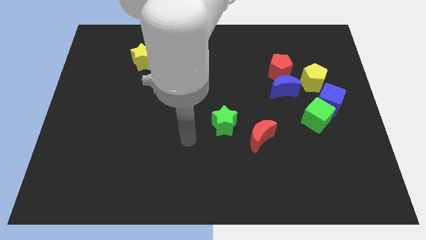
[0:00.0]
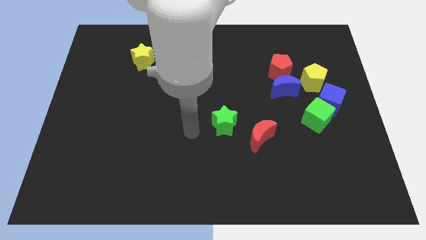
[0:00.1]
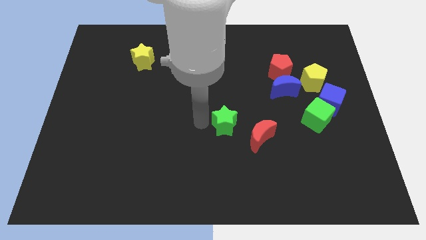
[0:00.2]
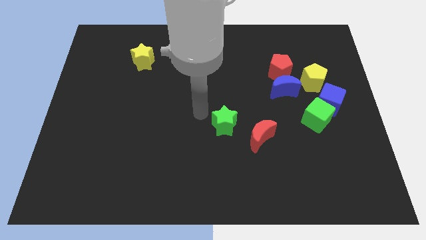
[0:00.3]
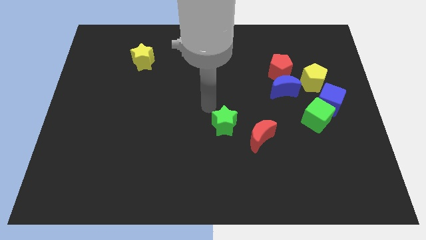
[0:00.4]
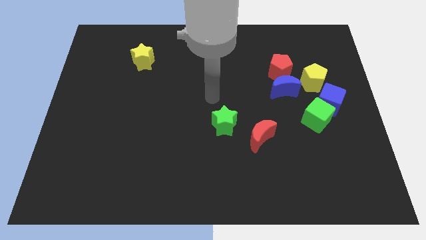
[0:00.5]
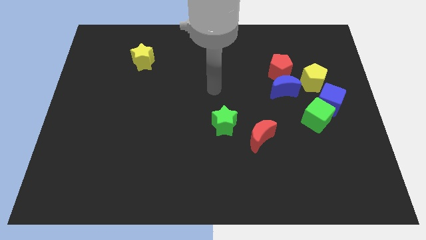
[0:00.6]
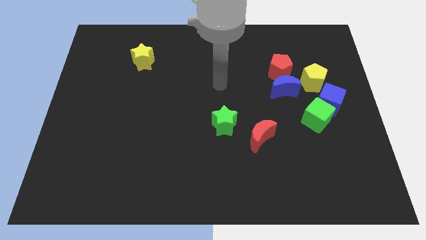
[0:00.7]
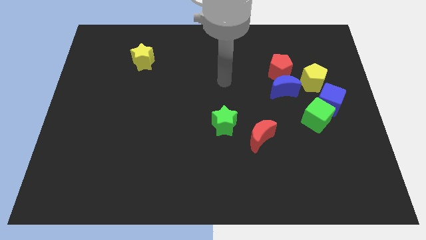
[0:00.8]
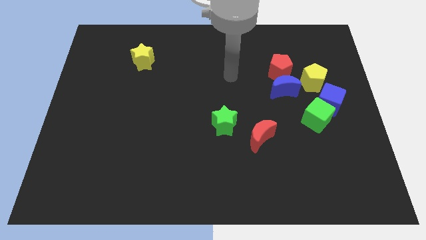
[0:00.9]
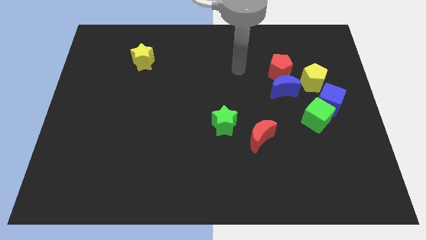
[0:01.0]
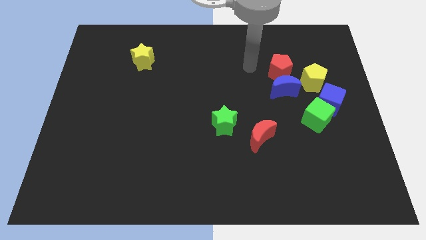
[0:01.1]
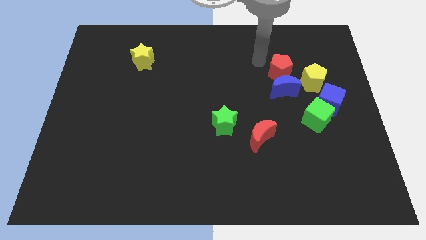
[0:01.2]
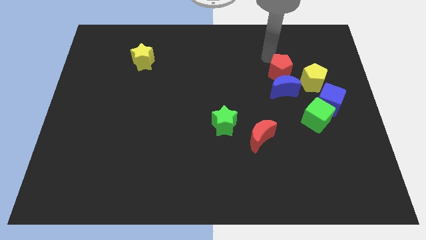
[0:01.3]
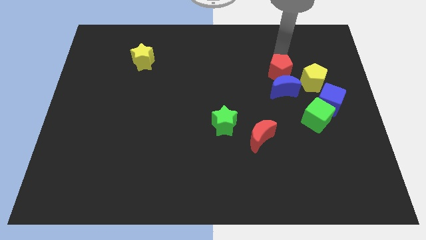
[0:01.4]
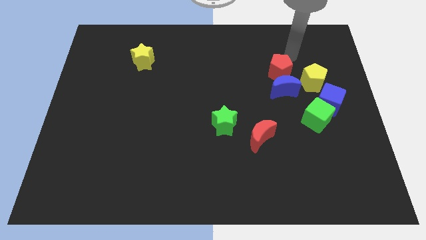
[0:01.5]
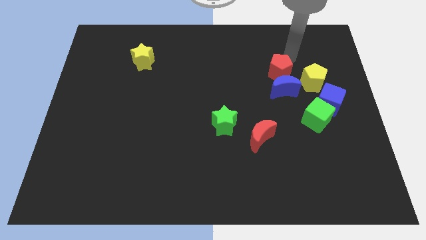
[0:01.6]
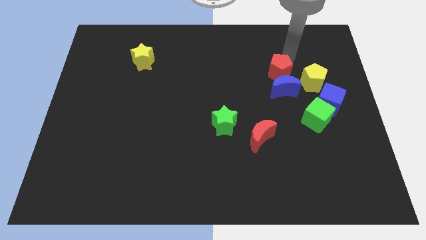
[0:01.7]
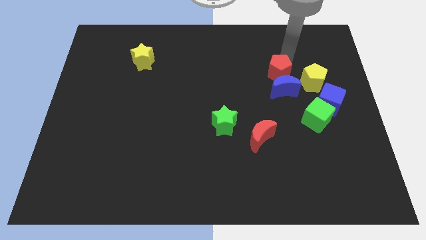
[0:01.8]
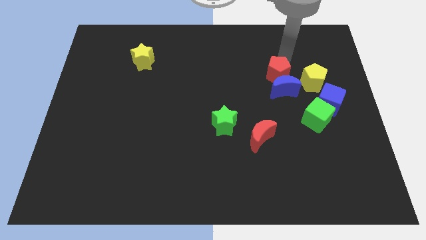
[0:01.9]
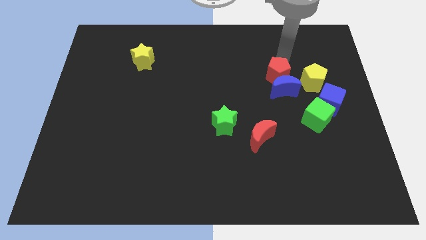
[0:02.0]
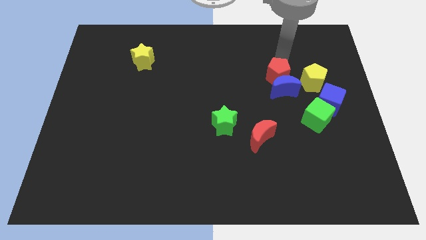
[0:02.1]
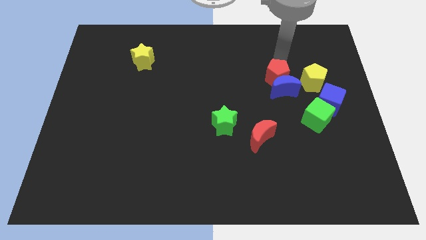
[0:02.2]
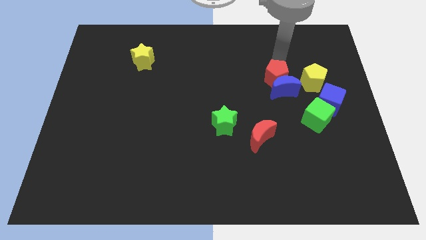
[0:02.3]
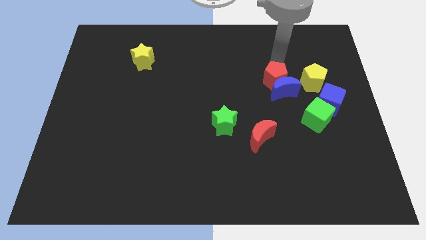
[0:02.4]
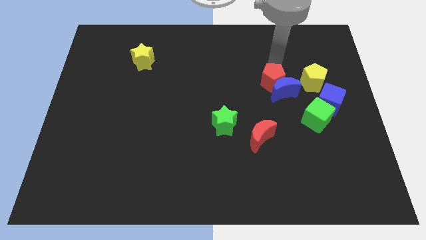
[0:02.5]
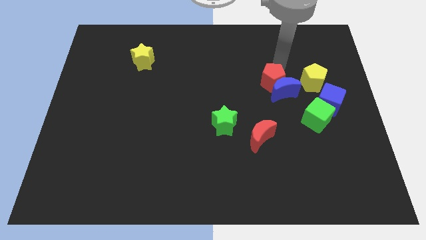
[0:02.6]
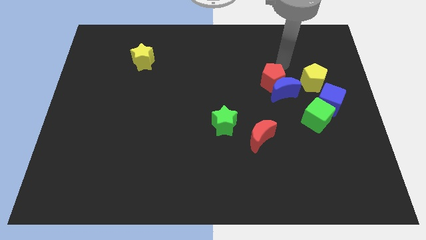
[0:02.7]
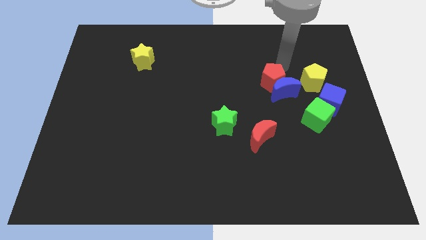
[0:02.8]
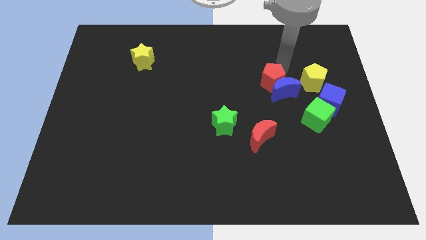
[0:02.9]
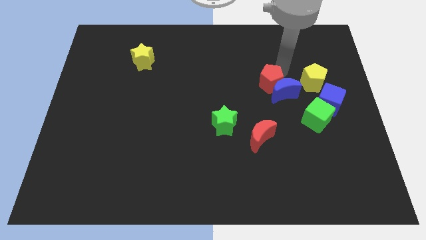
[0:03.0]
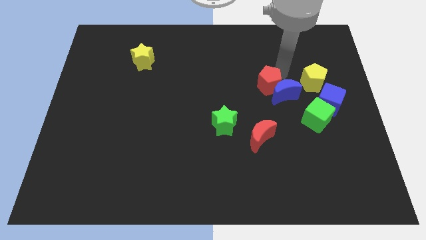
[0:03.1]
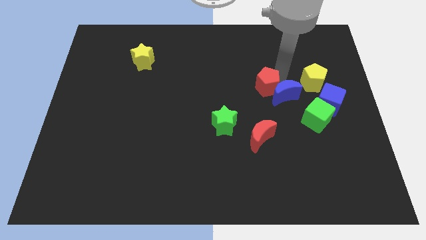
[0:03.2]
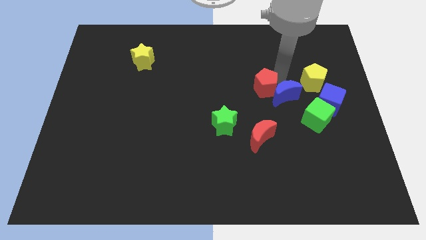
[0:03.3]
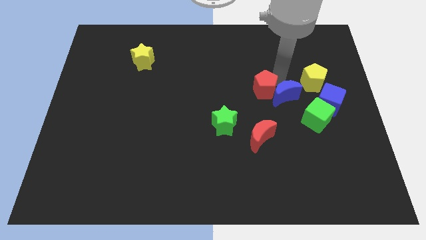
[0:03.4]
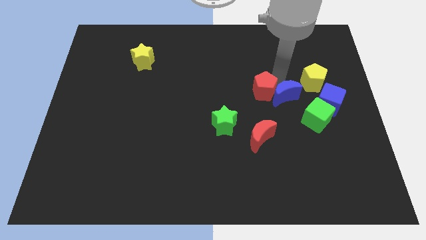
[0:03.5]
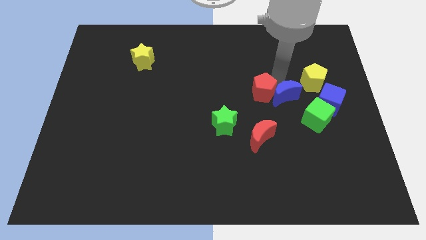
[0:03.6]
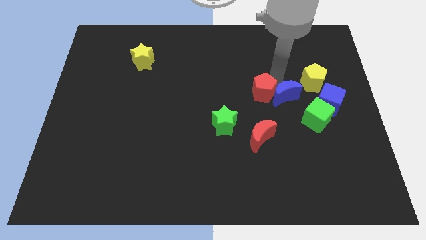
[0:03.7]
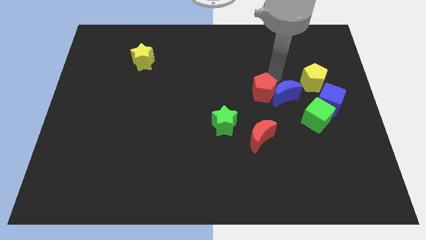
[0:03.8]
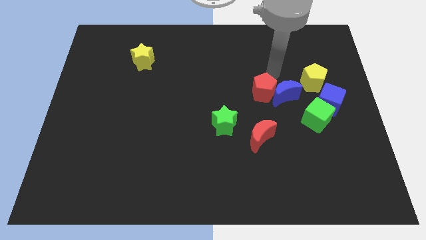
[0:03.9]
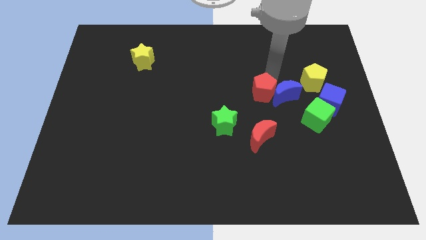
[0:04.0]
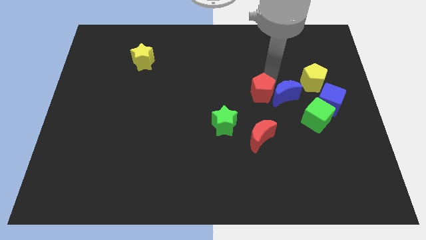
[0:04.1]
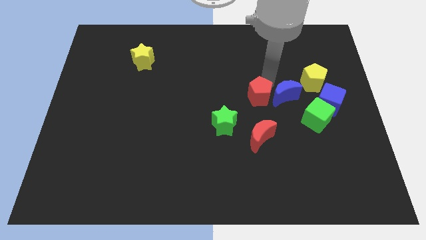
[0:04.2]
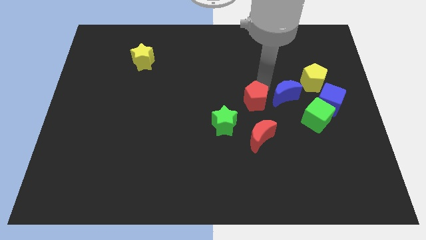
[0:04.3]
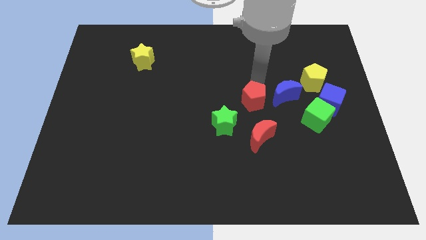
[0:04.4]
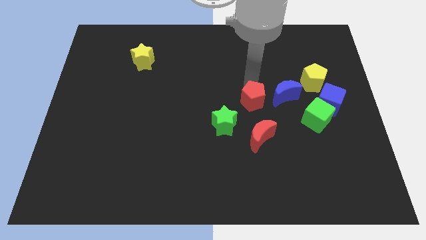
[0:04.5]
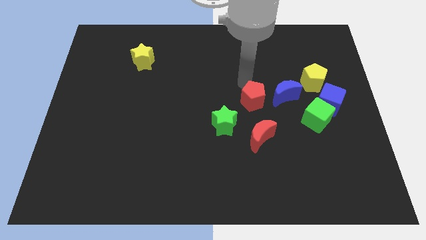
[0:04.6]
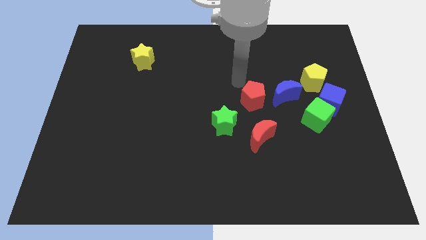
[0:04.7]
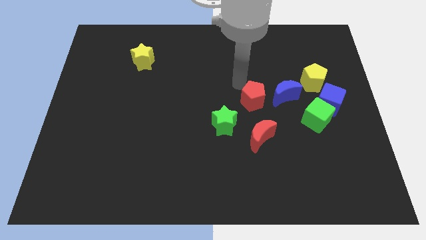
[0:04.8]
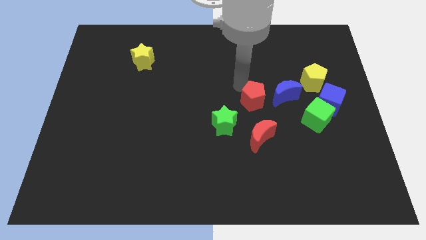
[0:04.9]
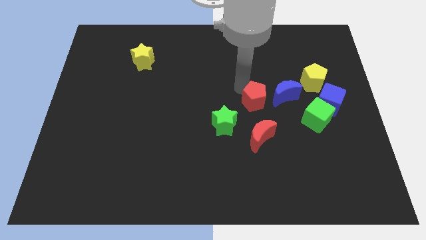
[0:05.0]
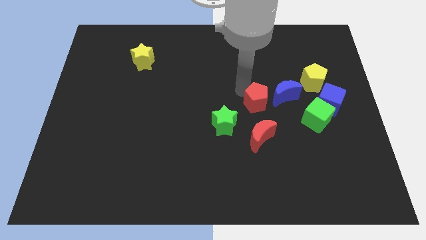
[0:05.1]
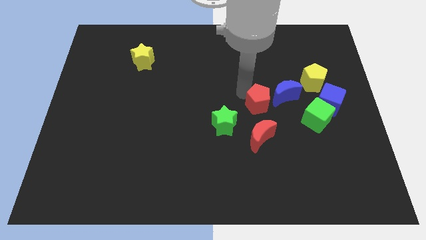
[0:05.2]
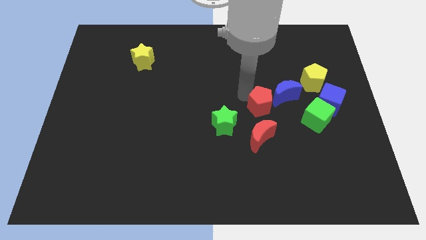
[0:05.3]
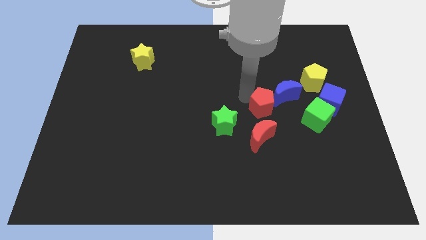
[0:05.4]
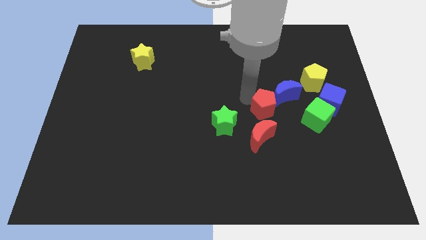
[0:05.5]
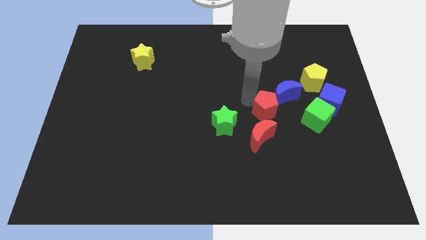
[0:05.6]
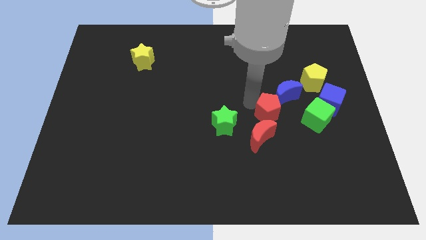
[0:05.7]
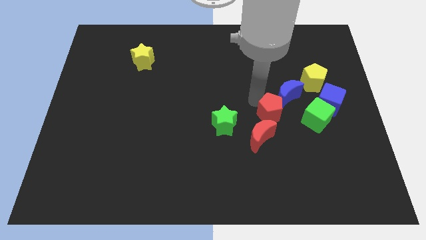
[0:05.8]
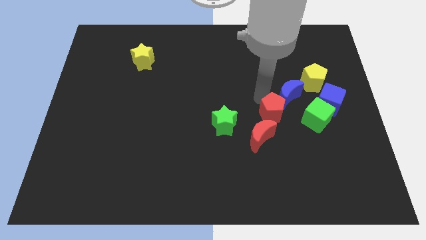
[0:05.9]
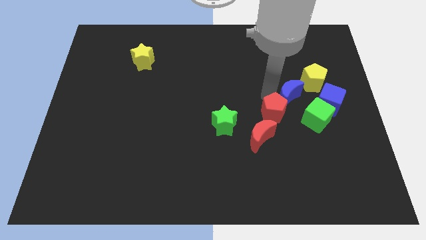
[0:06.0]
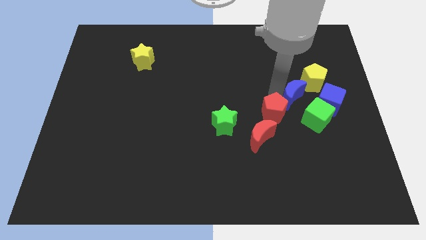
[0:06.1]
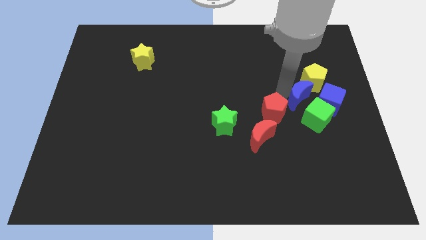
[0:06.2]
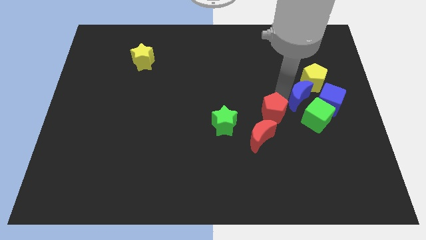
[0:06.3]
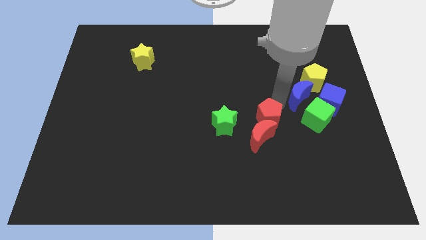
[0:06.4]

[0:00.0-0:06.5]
put the red pentagon to the red moon
